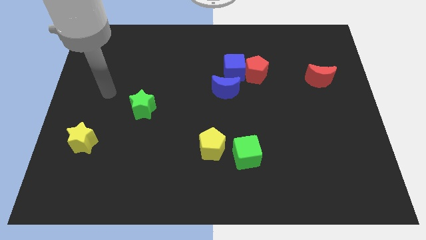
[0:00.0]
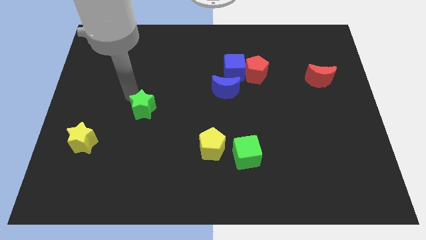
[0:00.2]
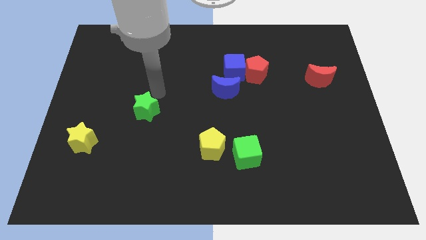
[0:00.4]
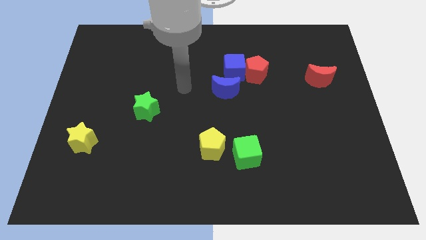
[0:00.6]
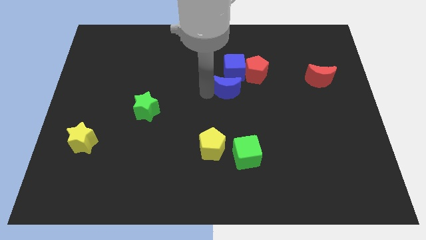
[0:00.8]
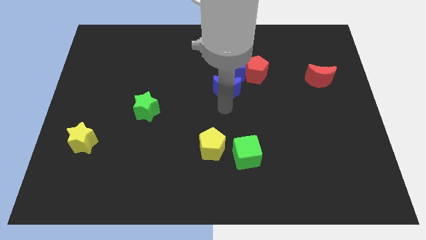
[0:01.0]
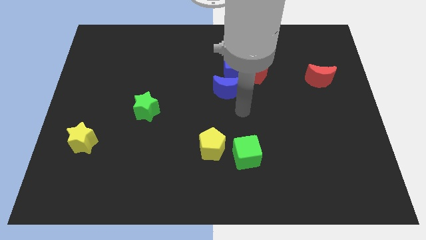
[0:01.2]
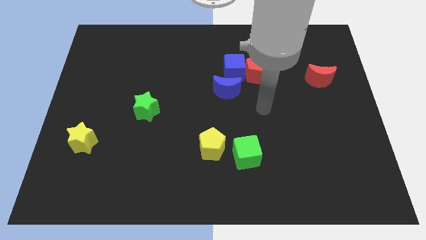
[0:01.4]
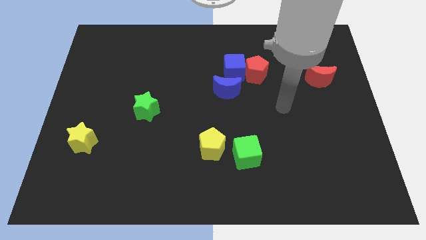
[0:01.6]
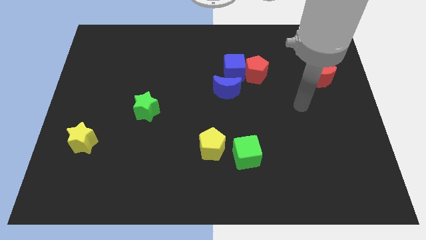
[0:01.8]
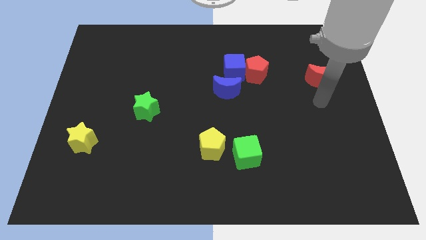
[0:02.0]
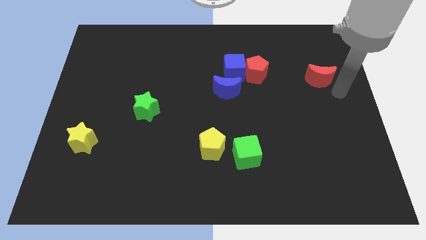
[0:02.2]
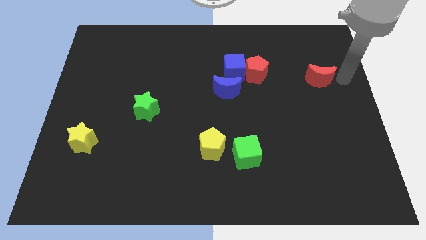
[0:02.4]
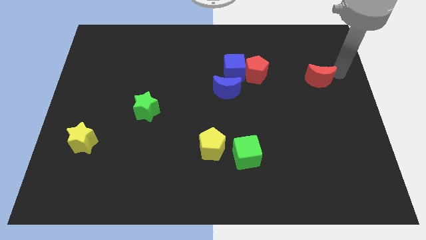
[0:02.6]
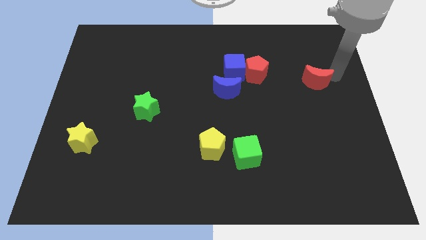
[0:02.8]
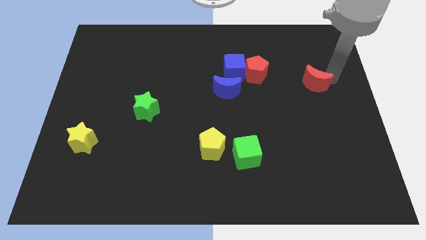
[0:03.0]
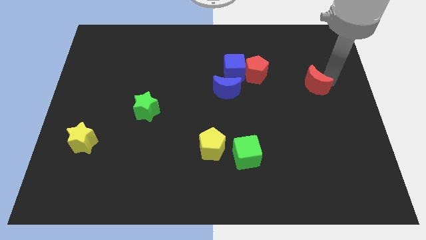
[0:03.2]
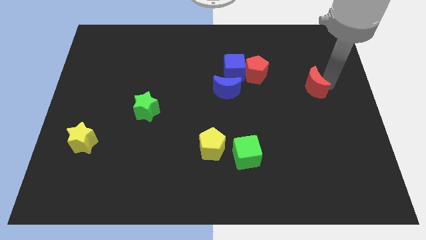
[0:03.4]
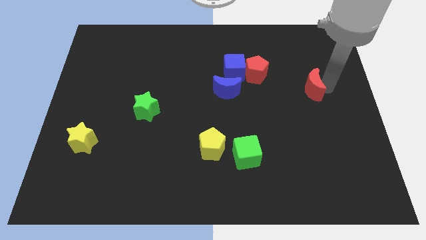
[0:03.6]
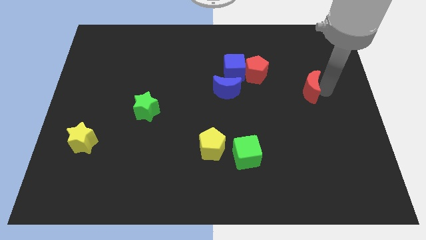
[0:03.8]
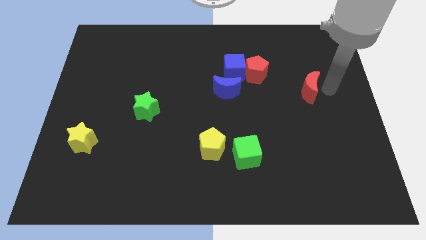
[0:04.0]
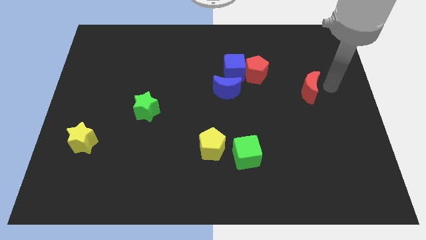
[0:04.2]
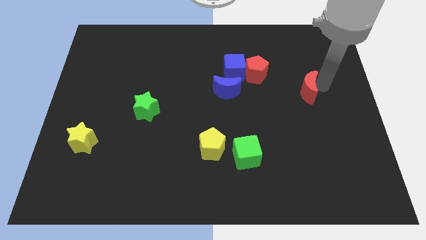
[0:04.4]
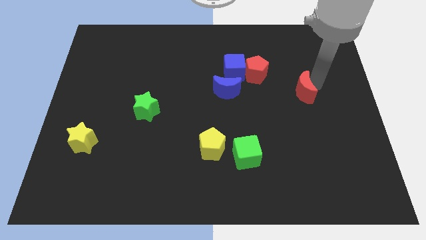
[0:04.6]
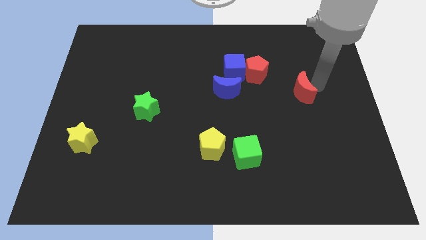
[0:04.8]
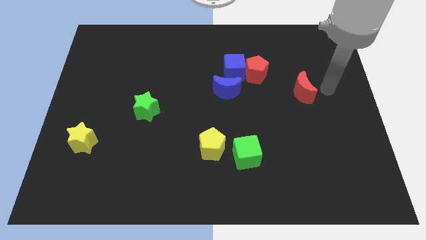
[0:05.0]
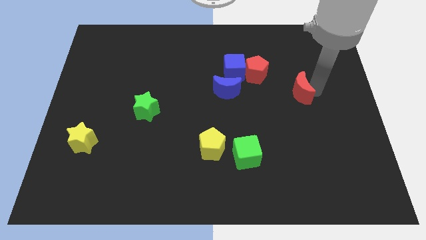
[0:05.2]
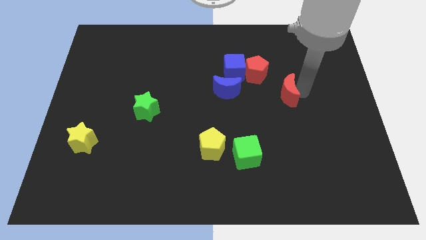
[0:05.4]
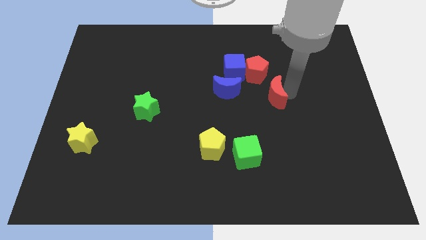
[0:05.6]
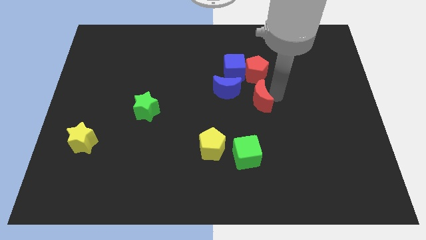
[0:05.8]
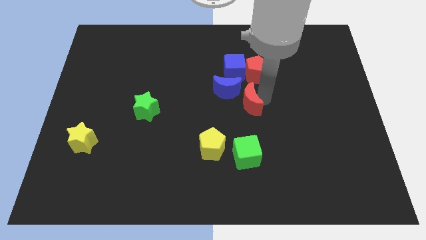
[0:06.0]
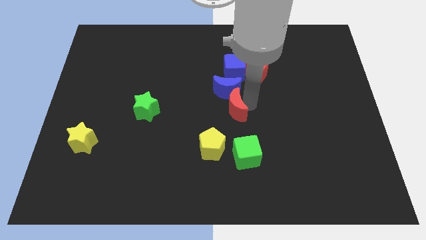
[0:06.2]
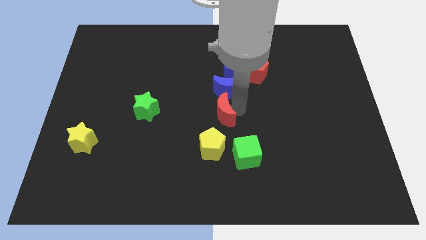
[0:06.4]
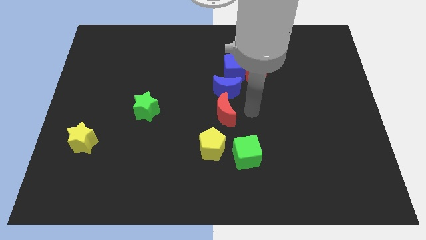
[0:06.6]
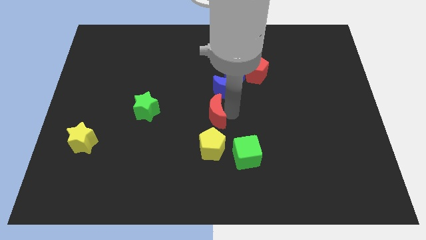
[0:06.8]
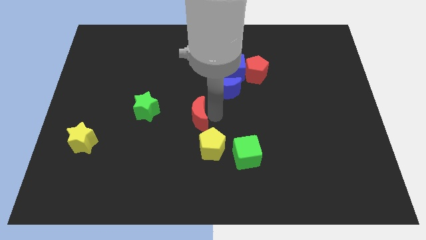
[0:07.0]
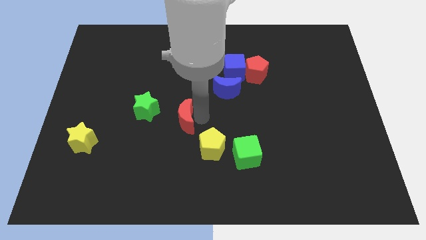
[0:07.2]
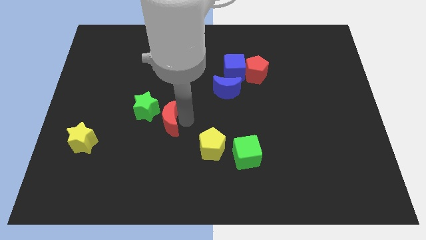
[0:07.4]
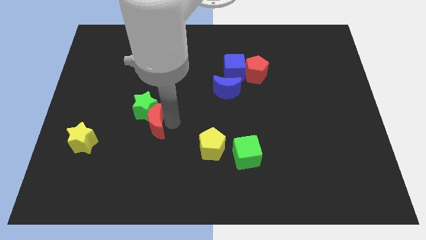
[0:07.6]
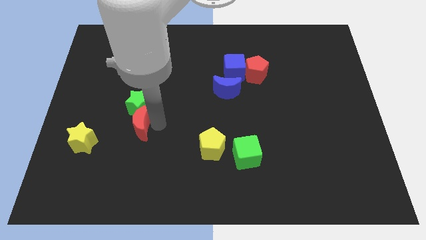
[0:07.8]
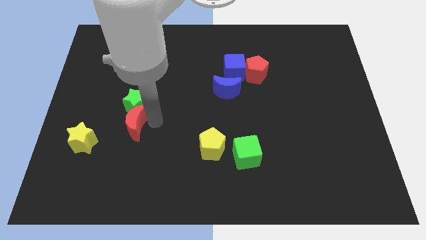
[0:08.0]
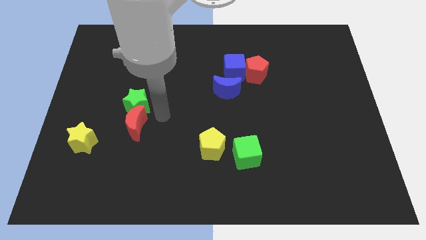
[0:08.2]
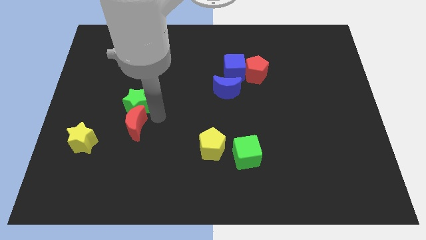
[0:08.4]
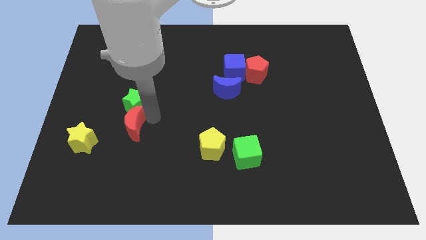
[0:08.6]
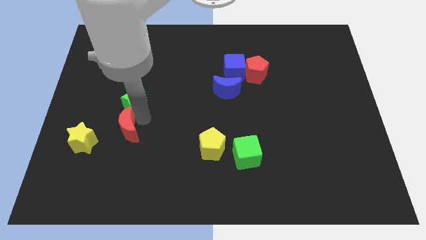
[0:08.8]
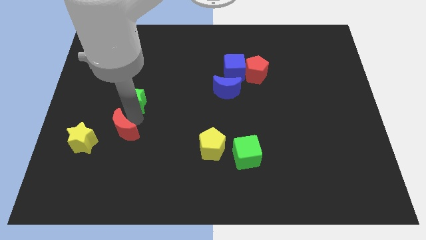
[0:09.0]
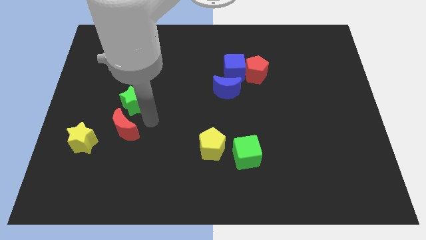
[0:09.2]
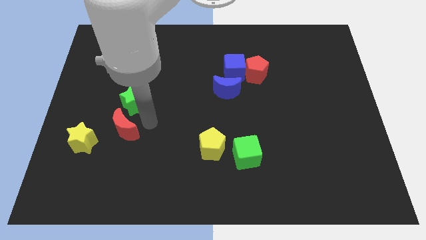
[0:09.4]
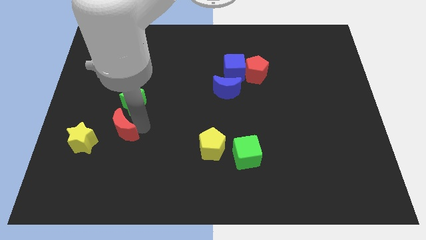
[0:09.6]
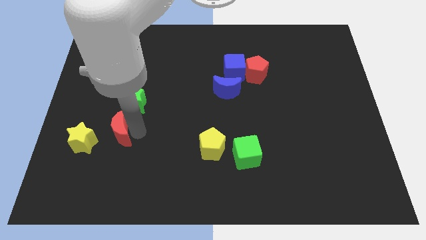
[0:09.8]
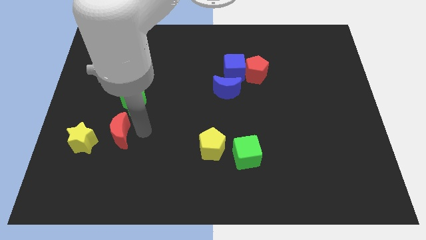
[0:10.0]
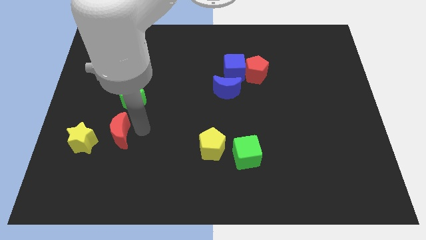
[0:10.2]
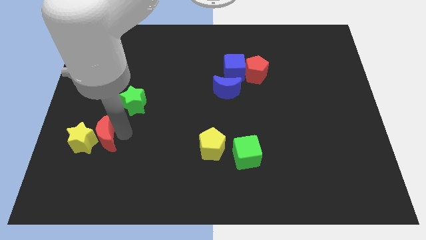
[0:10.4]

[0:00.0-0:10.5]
push the red moon next to the yellow star

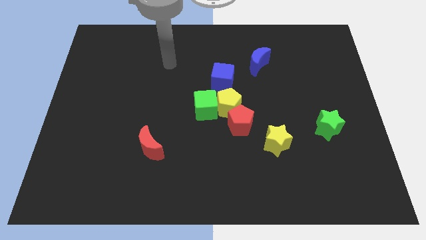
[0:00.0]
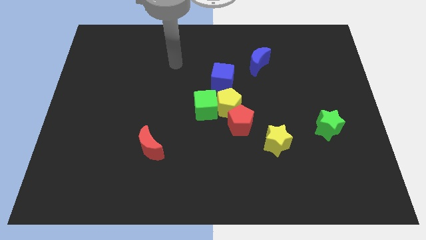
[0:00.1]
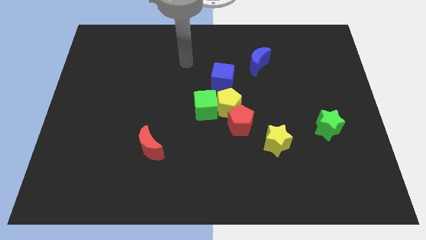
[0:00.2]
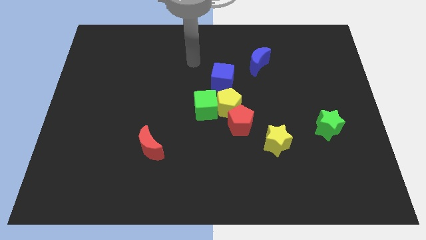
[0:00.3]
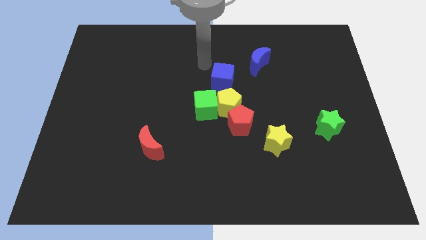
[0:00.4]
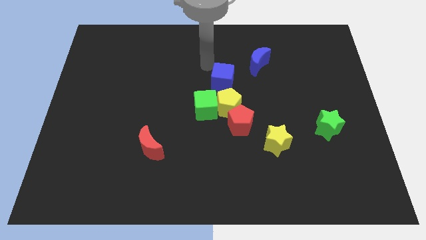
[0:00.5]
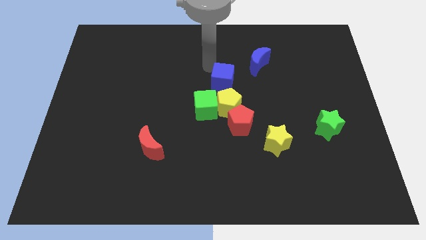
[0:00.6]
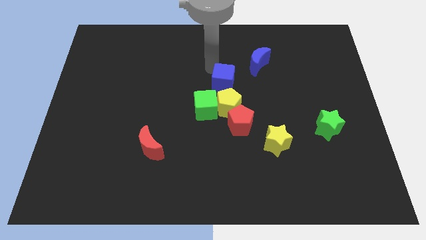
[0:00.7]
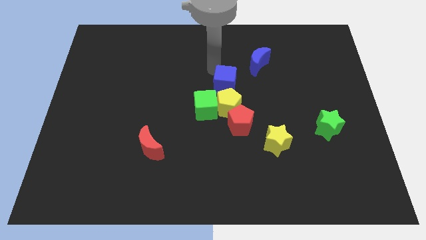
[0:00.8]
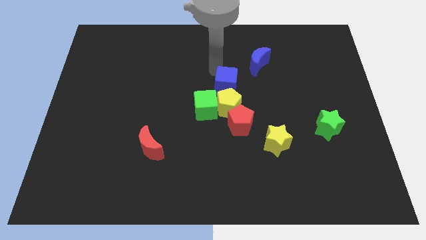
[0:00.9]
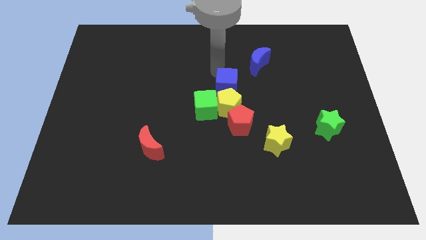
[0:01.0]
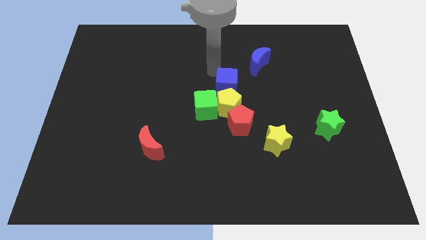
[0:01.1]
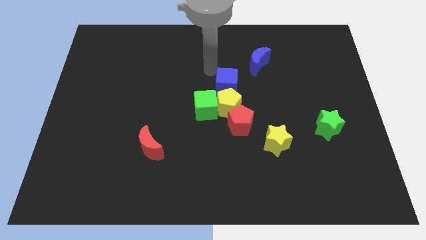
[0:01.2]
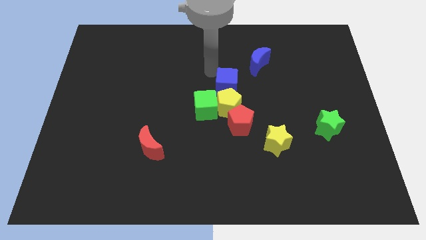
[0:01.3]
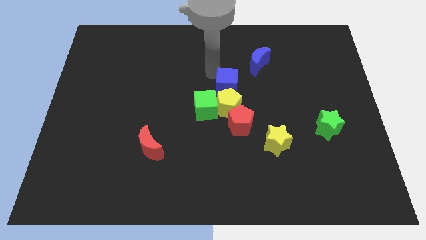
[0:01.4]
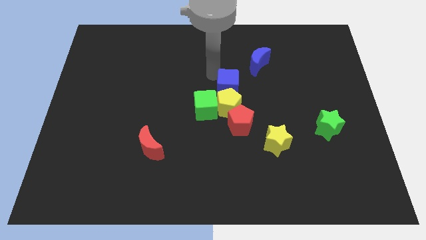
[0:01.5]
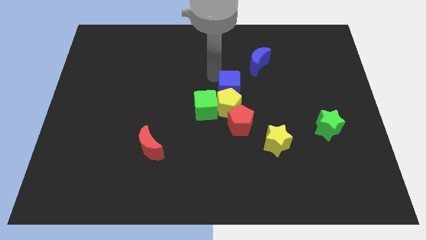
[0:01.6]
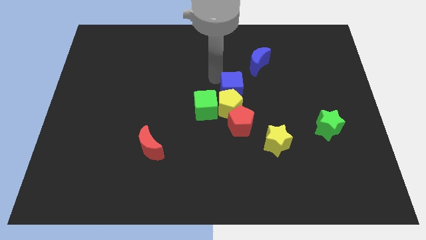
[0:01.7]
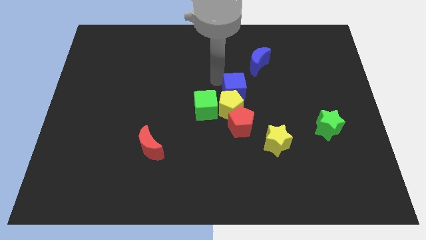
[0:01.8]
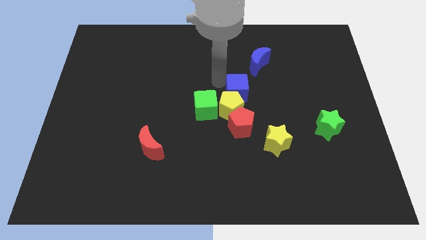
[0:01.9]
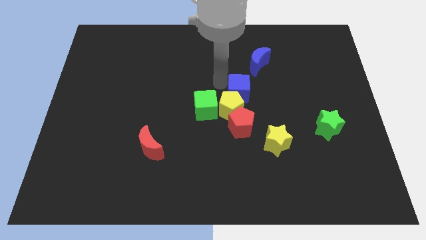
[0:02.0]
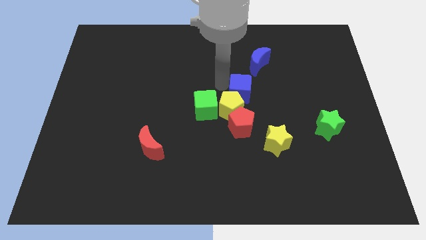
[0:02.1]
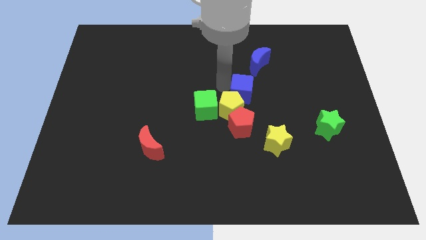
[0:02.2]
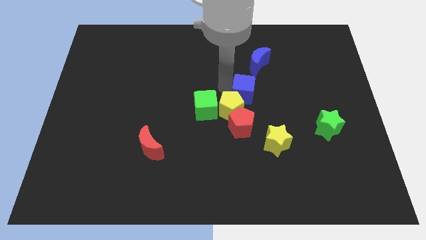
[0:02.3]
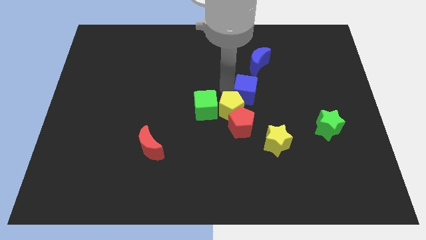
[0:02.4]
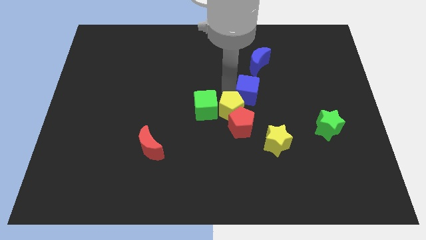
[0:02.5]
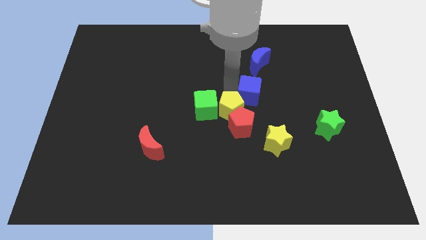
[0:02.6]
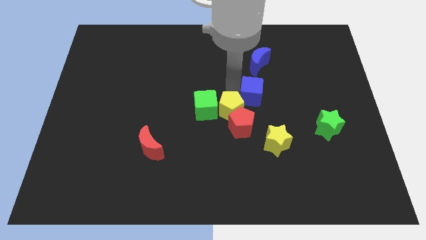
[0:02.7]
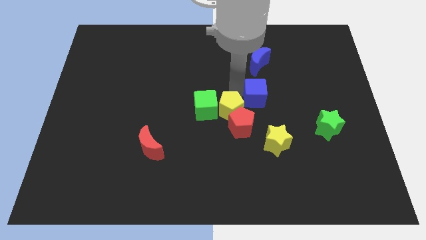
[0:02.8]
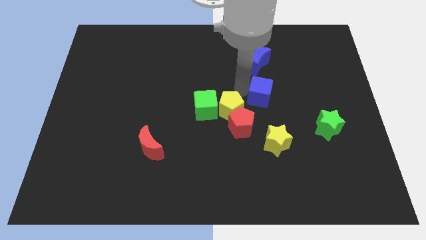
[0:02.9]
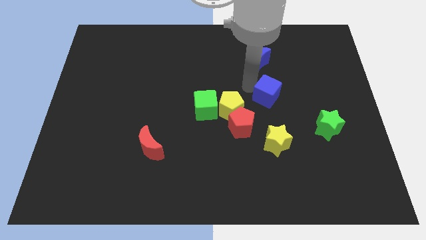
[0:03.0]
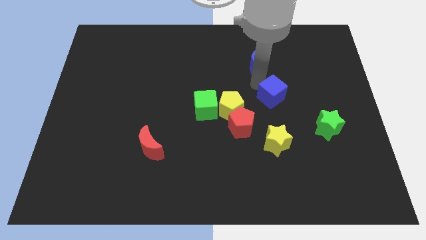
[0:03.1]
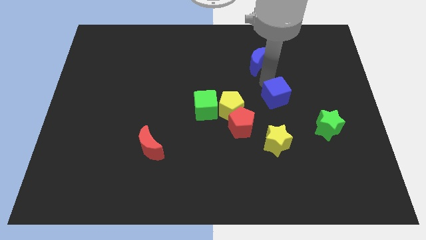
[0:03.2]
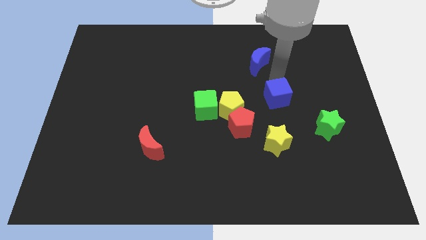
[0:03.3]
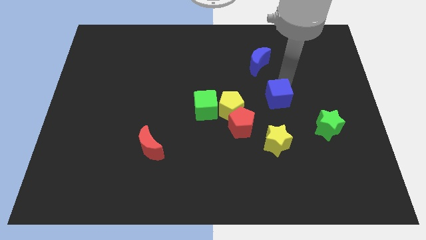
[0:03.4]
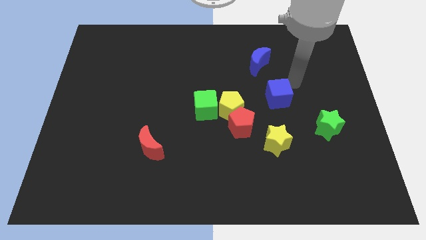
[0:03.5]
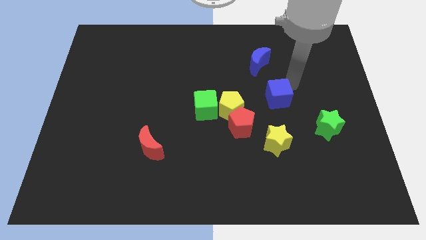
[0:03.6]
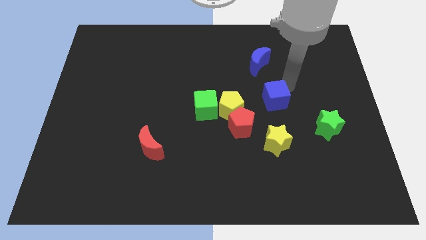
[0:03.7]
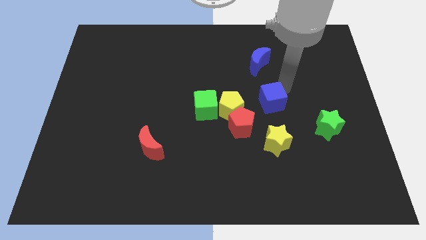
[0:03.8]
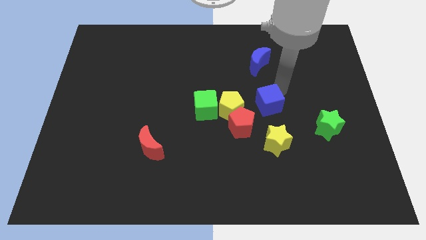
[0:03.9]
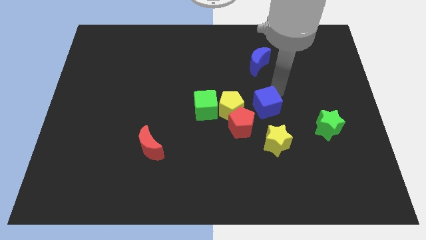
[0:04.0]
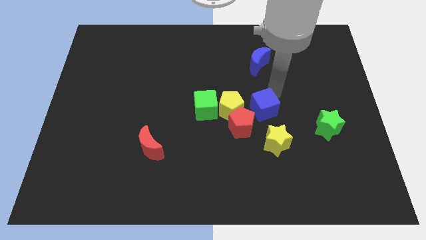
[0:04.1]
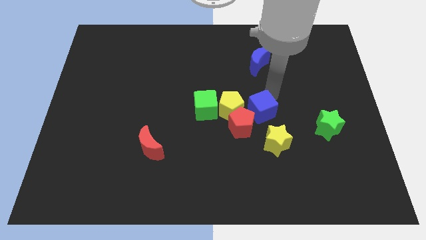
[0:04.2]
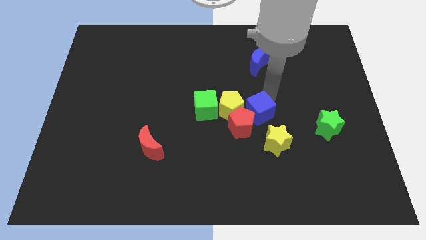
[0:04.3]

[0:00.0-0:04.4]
put the blue cube next to the red pentagon
